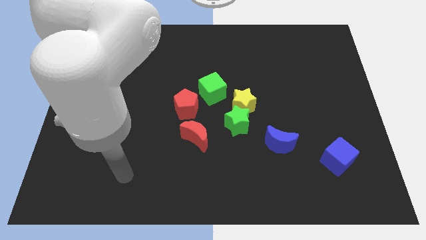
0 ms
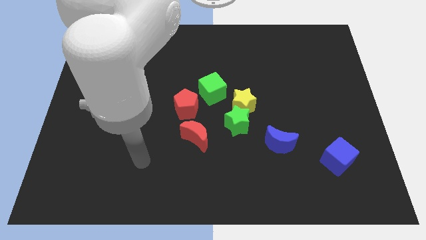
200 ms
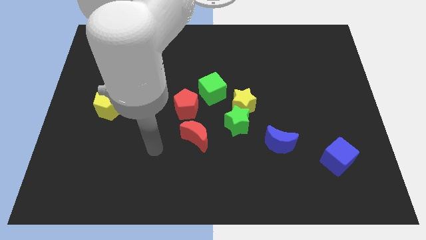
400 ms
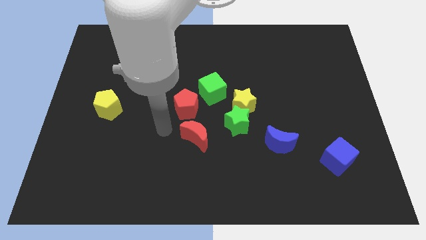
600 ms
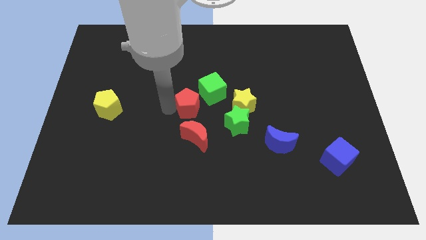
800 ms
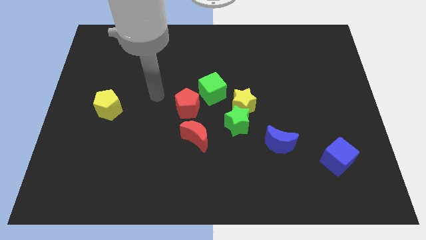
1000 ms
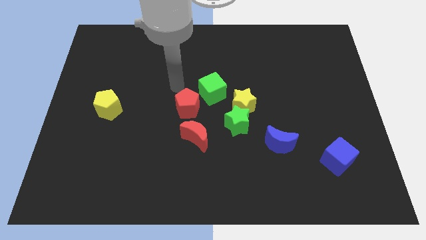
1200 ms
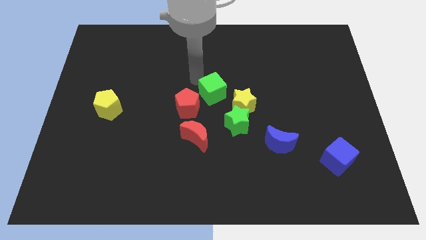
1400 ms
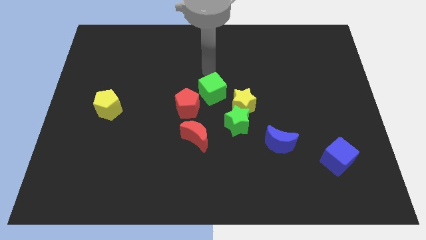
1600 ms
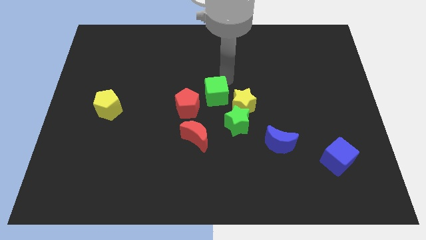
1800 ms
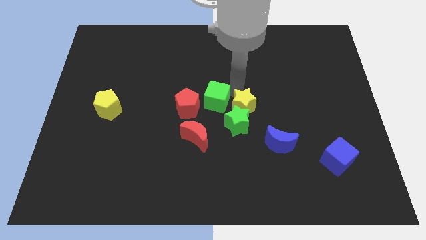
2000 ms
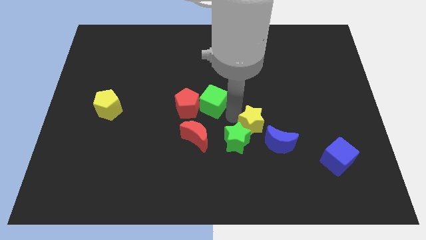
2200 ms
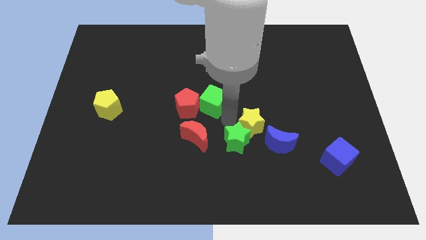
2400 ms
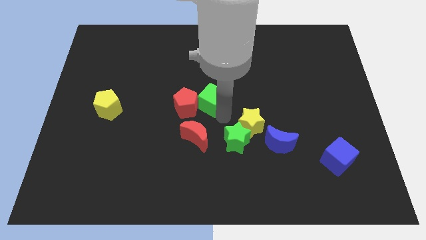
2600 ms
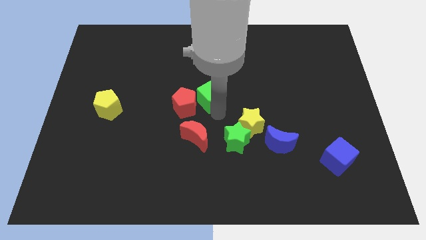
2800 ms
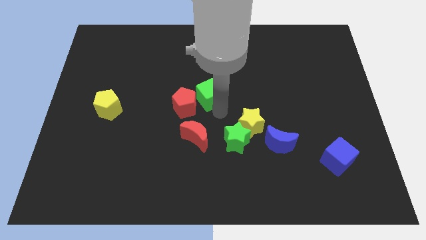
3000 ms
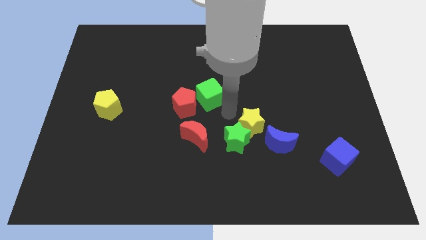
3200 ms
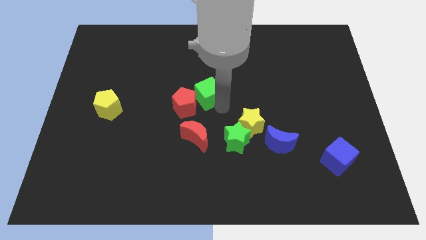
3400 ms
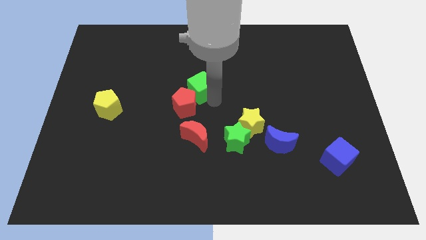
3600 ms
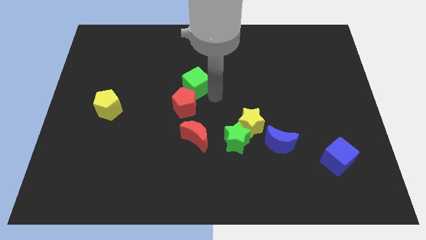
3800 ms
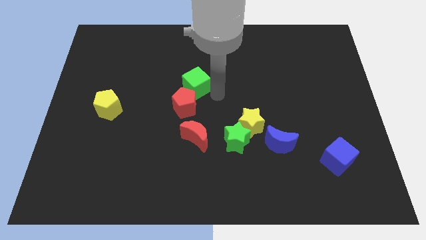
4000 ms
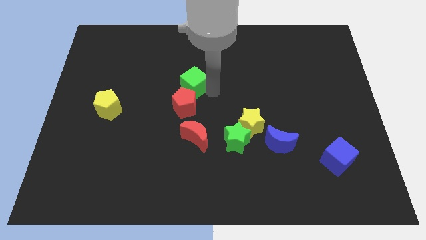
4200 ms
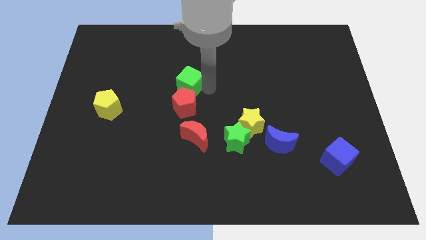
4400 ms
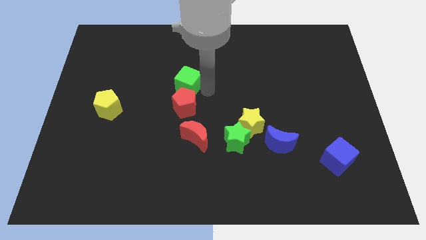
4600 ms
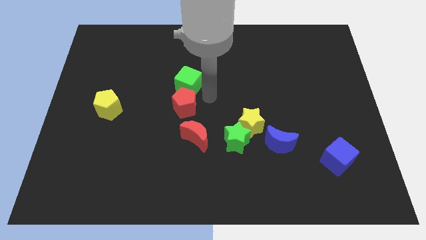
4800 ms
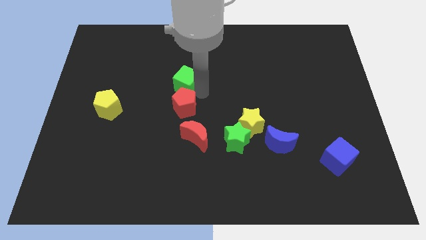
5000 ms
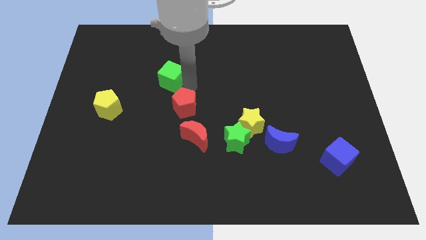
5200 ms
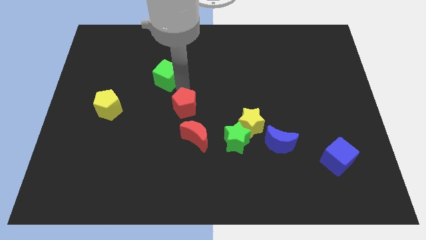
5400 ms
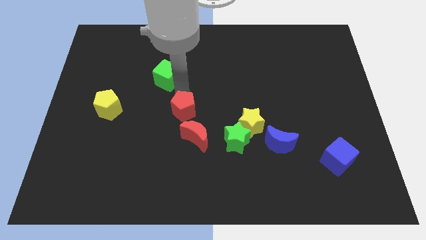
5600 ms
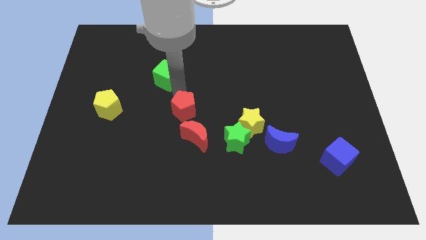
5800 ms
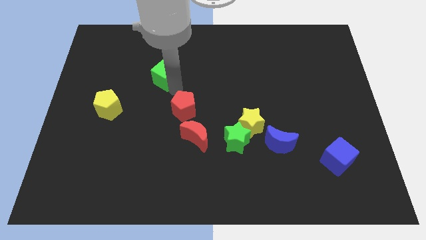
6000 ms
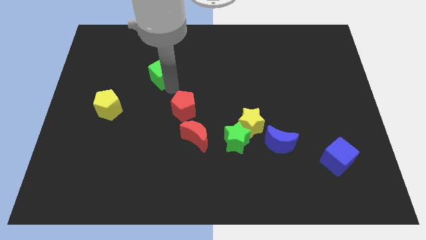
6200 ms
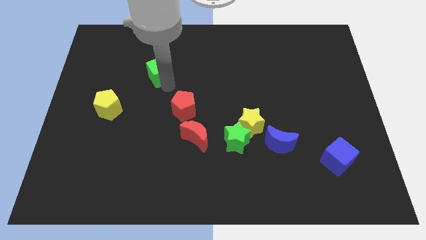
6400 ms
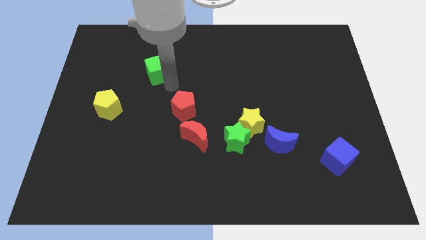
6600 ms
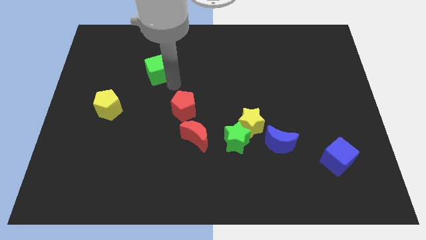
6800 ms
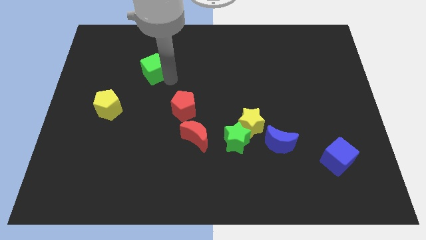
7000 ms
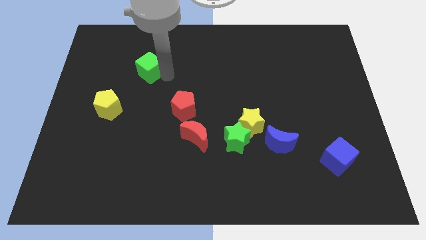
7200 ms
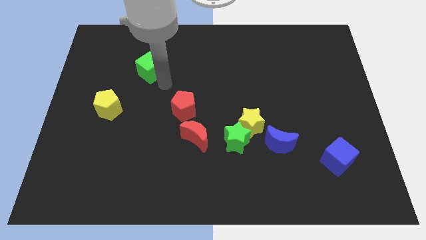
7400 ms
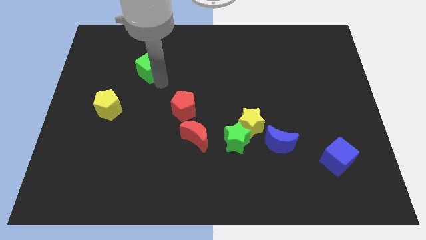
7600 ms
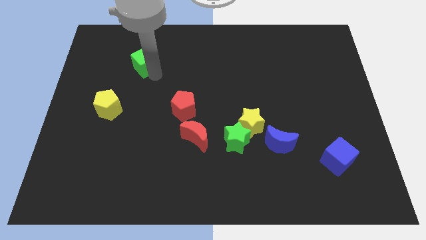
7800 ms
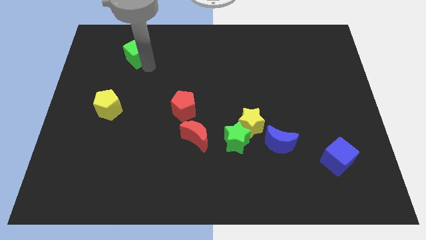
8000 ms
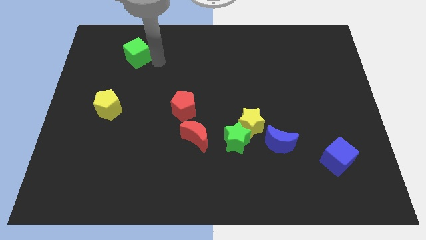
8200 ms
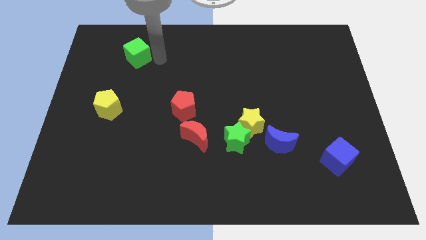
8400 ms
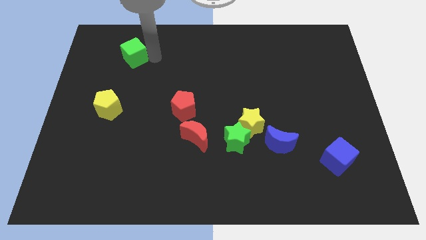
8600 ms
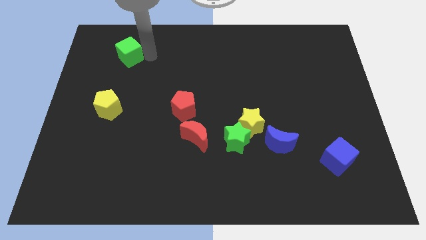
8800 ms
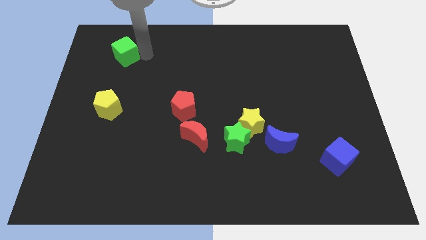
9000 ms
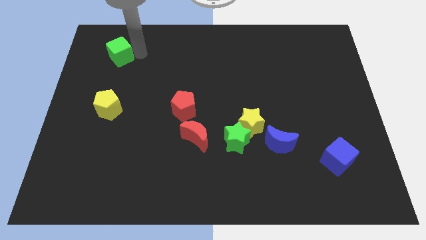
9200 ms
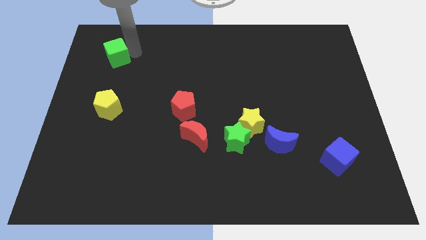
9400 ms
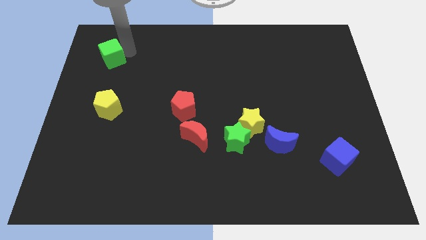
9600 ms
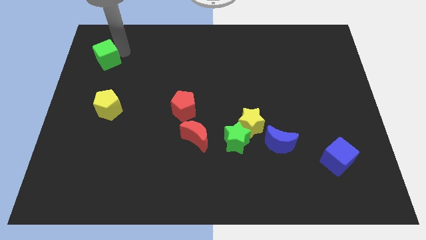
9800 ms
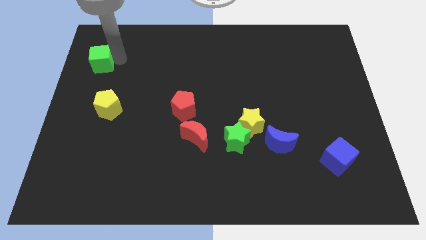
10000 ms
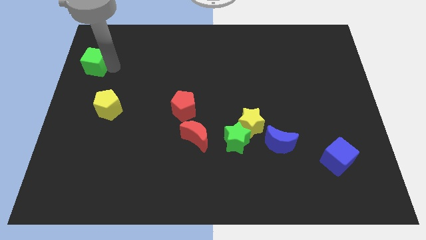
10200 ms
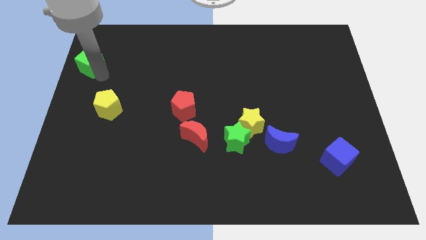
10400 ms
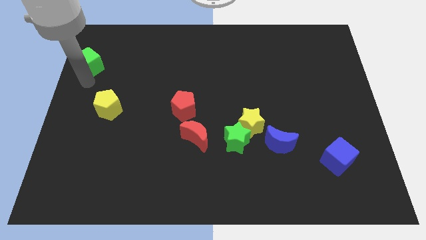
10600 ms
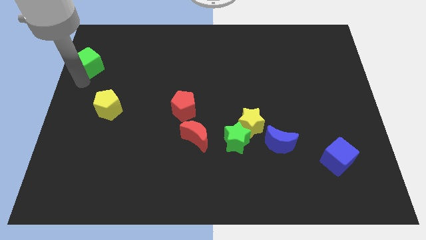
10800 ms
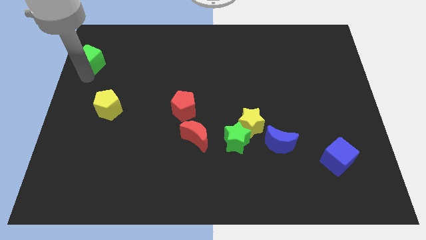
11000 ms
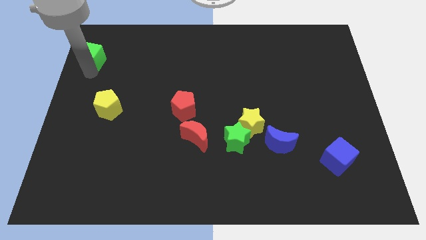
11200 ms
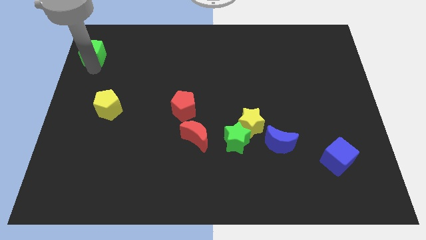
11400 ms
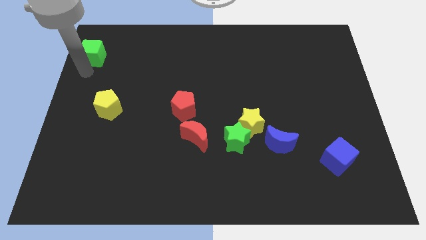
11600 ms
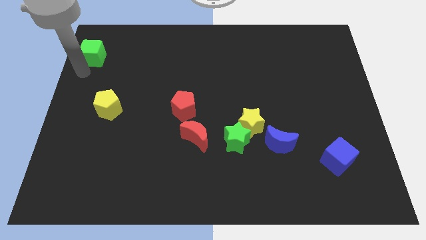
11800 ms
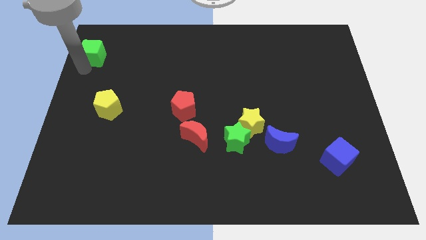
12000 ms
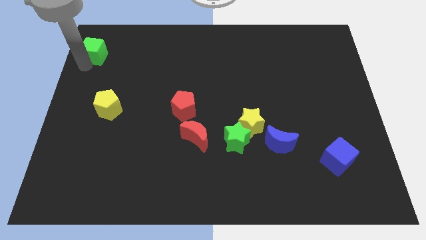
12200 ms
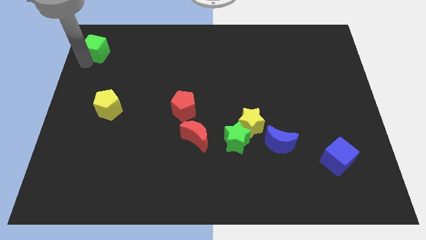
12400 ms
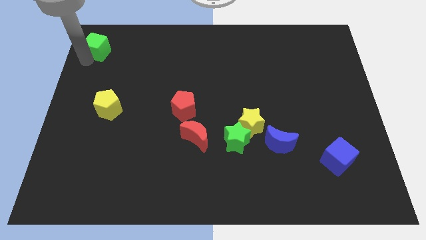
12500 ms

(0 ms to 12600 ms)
push the green cube to the top left of the board
